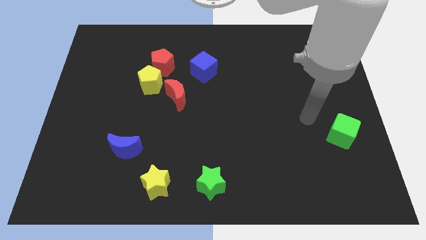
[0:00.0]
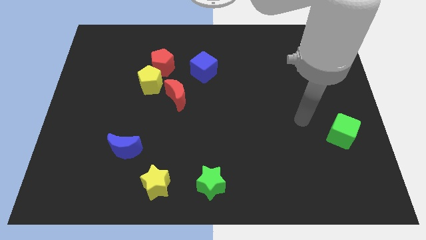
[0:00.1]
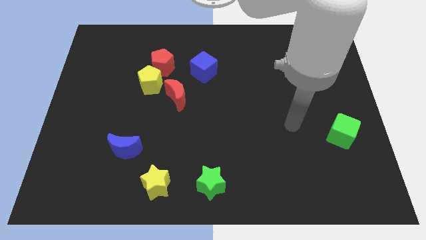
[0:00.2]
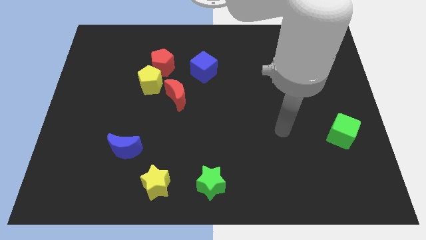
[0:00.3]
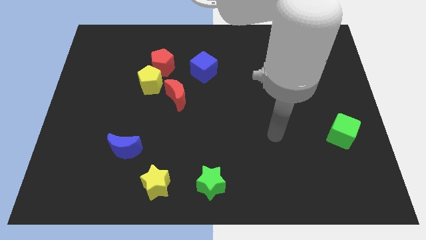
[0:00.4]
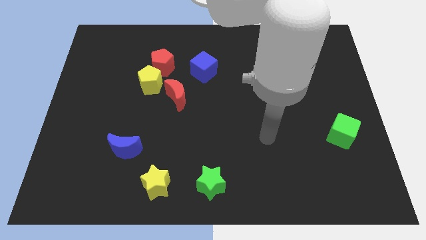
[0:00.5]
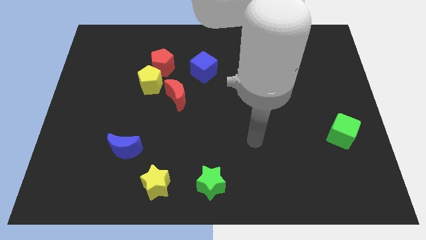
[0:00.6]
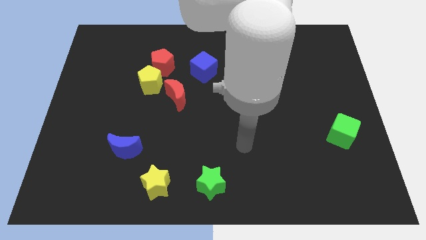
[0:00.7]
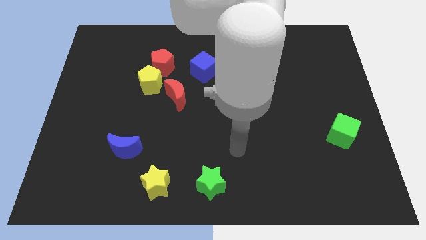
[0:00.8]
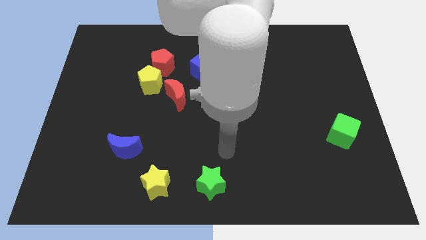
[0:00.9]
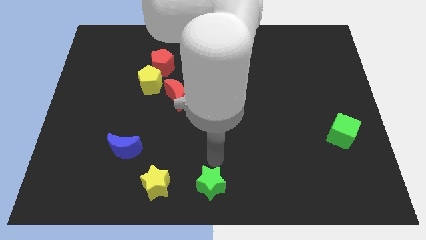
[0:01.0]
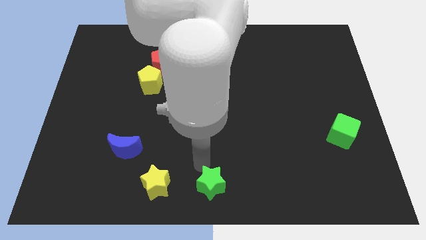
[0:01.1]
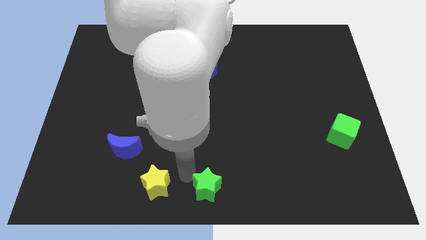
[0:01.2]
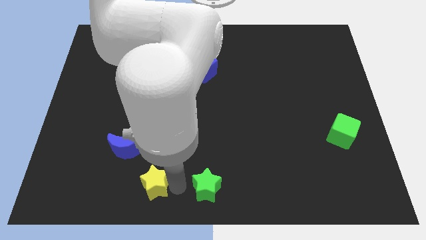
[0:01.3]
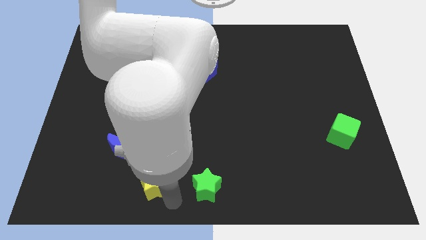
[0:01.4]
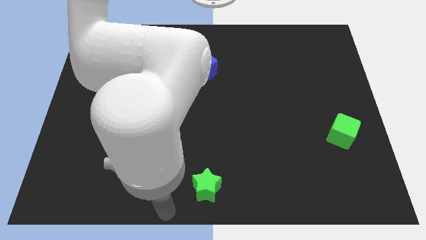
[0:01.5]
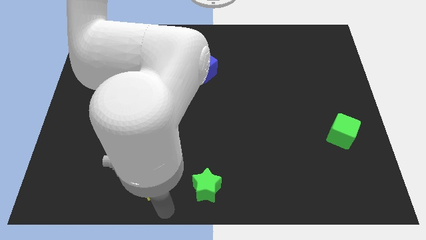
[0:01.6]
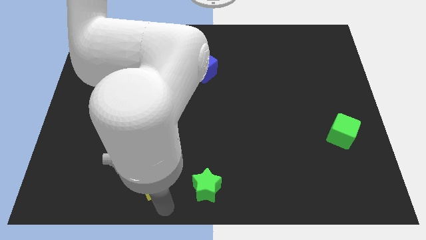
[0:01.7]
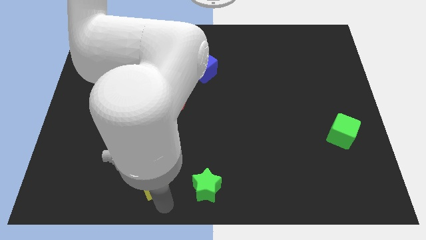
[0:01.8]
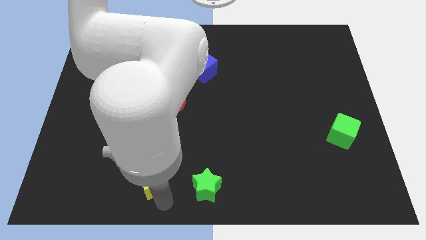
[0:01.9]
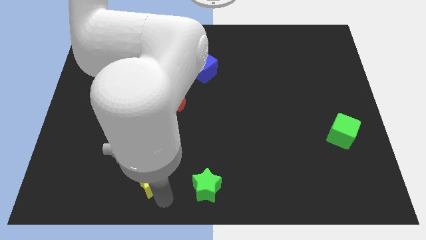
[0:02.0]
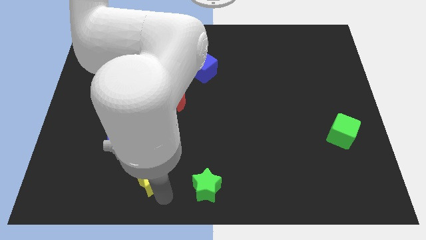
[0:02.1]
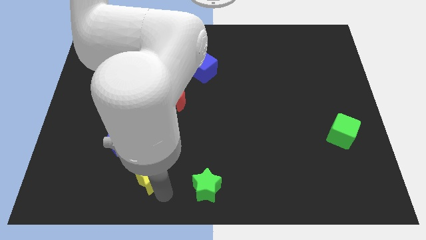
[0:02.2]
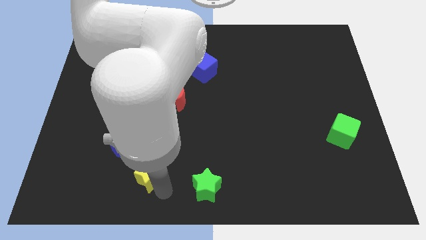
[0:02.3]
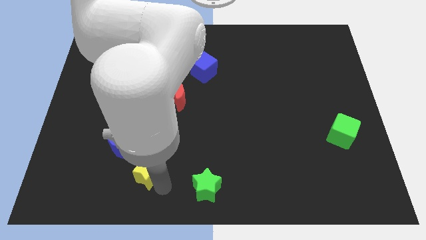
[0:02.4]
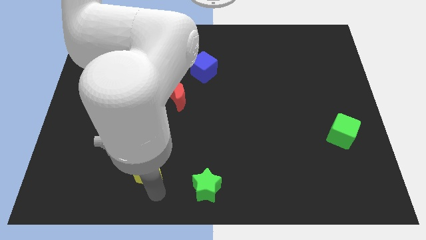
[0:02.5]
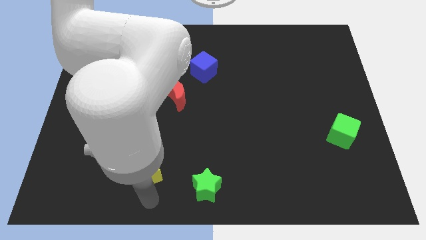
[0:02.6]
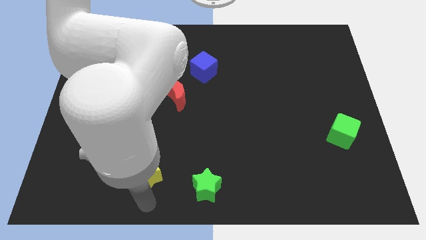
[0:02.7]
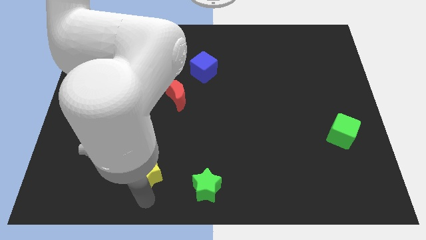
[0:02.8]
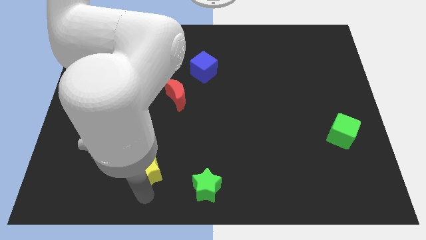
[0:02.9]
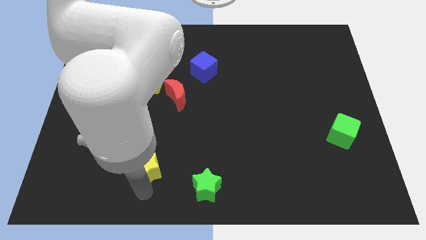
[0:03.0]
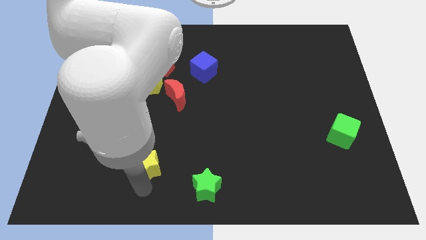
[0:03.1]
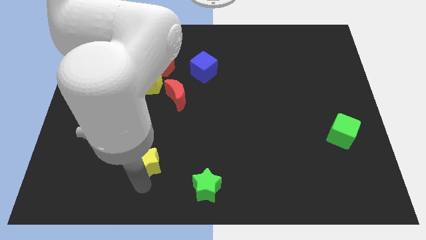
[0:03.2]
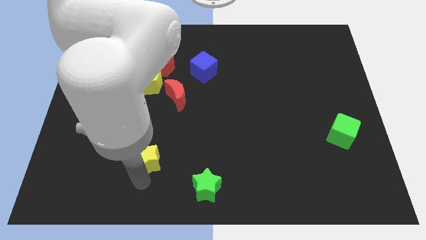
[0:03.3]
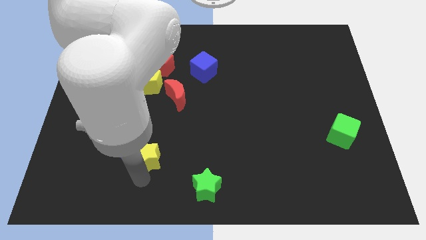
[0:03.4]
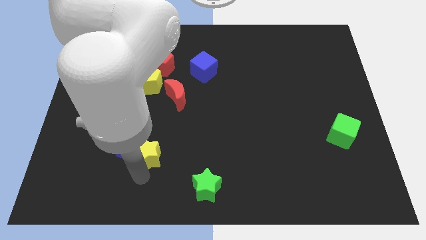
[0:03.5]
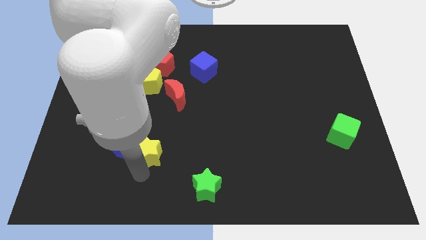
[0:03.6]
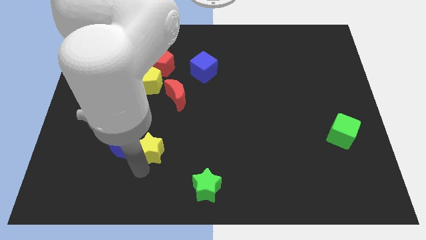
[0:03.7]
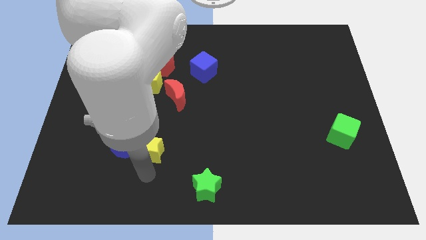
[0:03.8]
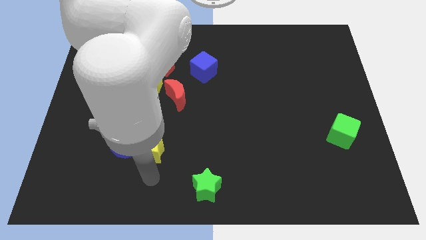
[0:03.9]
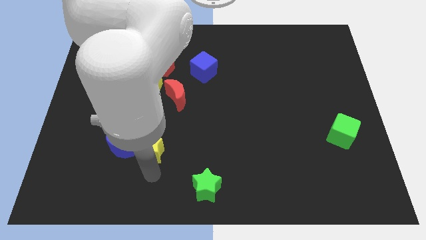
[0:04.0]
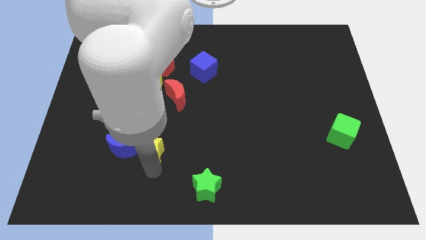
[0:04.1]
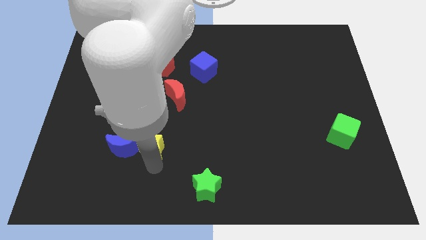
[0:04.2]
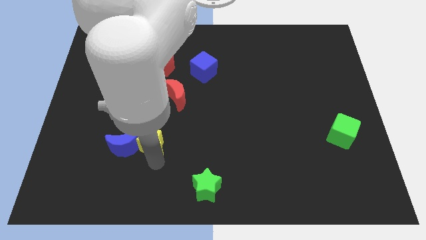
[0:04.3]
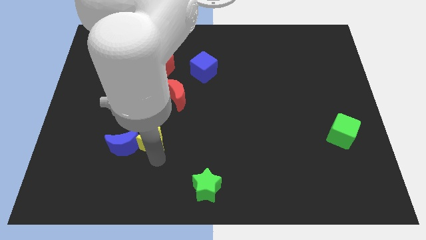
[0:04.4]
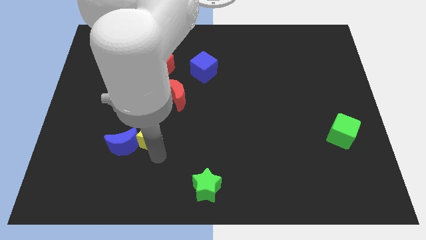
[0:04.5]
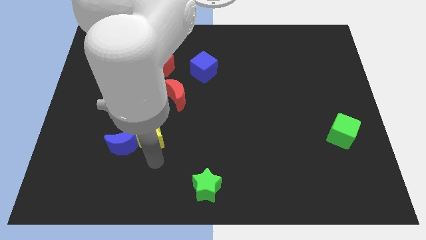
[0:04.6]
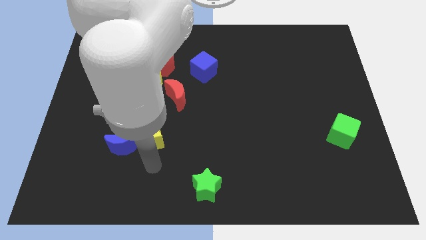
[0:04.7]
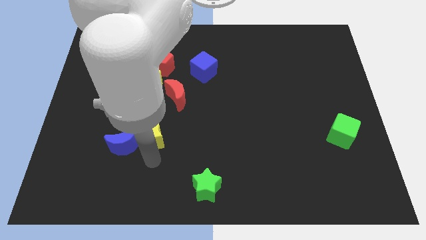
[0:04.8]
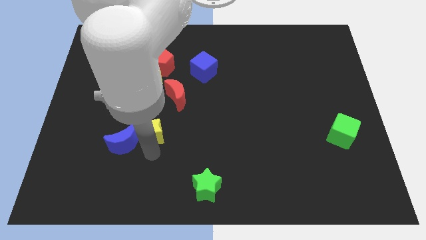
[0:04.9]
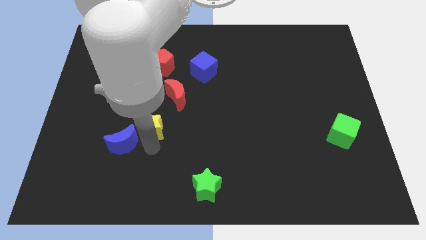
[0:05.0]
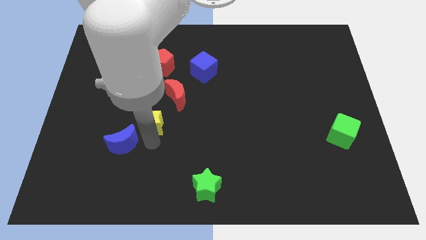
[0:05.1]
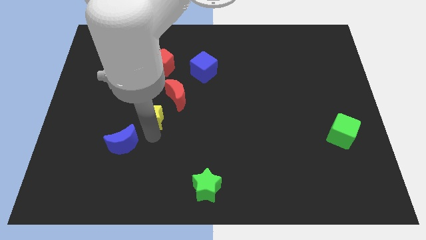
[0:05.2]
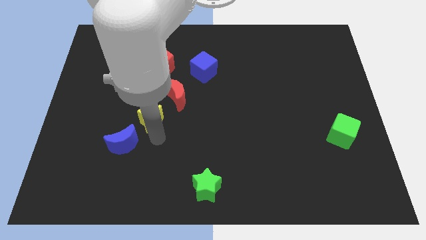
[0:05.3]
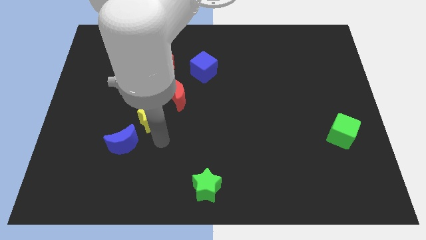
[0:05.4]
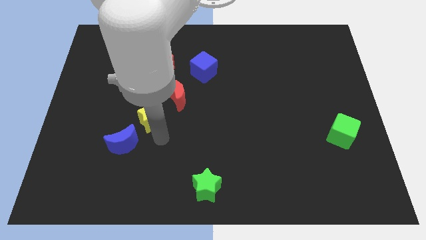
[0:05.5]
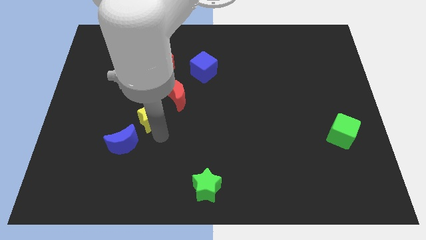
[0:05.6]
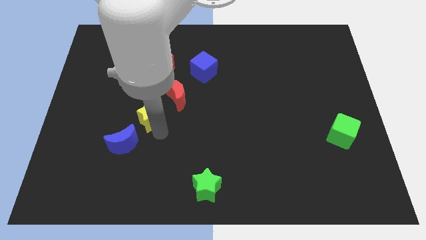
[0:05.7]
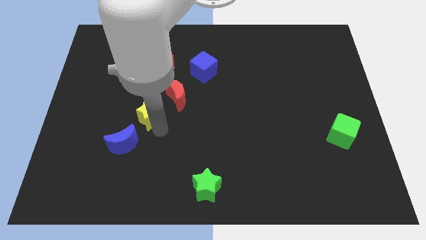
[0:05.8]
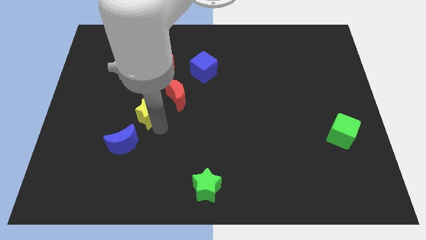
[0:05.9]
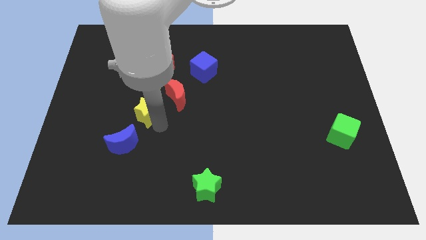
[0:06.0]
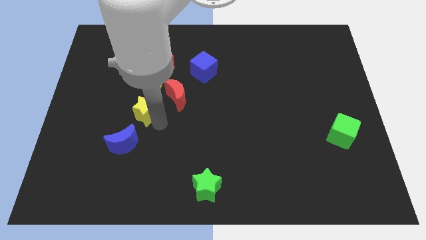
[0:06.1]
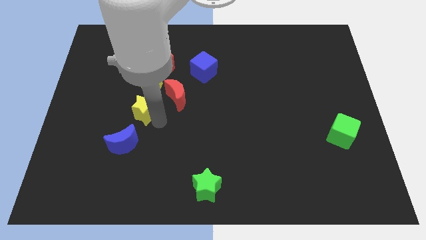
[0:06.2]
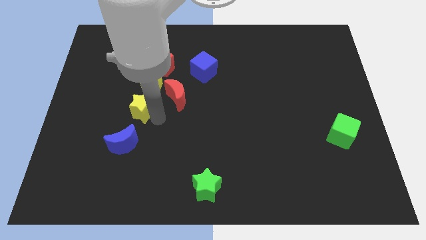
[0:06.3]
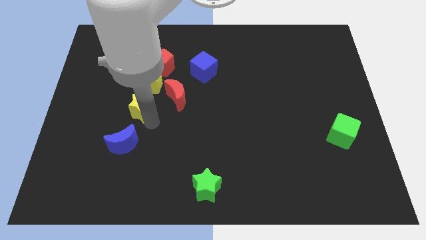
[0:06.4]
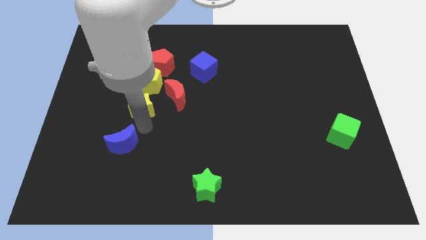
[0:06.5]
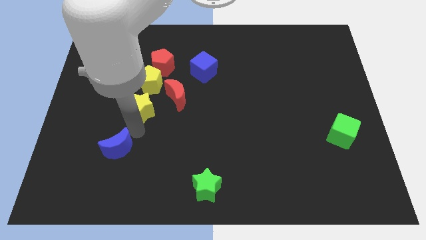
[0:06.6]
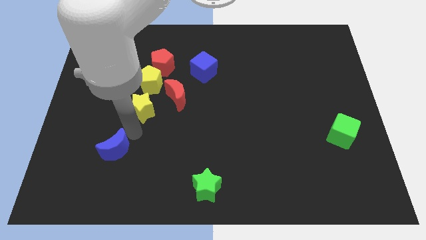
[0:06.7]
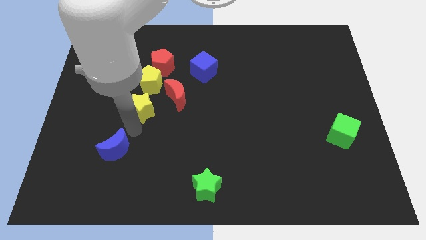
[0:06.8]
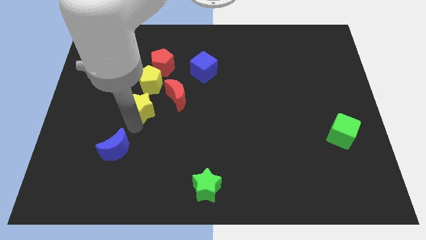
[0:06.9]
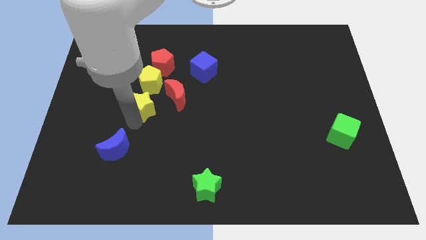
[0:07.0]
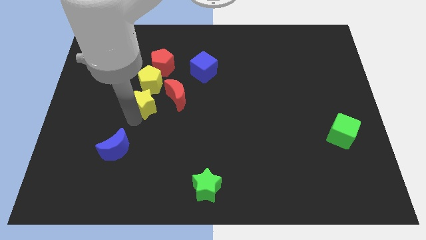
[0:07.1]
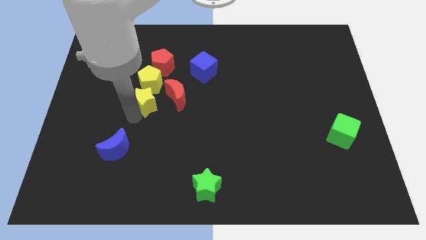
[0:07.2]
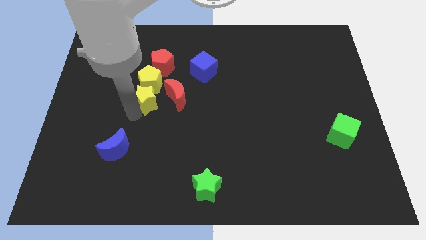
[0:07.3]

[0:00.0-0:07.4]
slide the yellow star next to the yellow pentagon

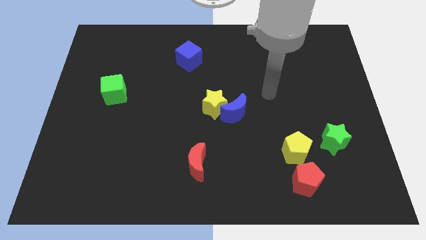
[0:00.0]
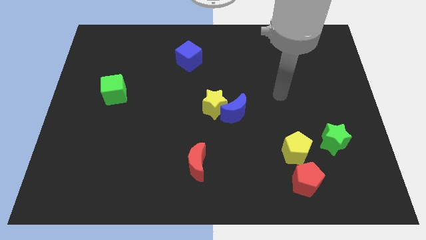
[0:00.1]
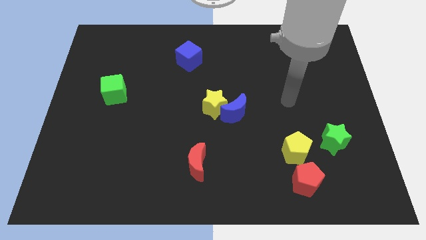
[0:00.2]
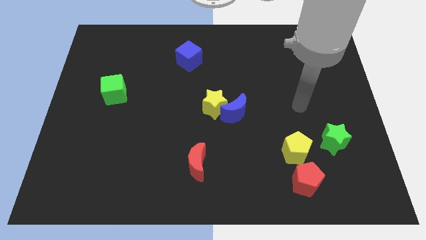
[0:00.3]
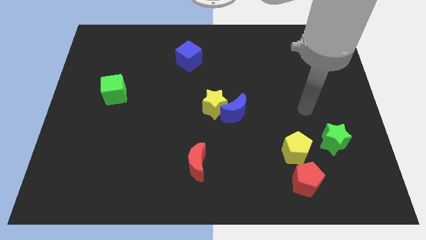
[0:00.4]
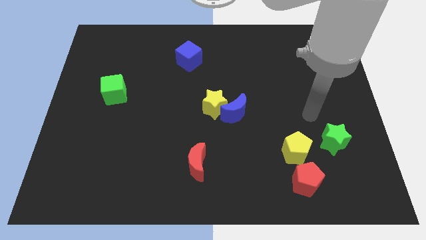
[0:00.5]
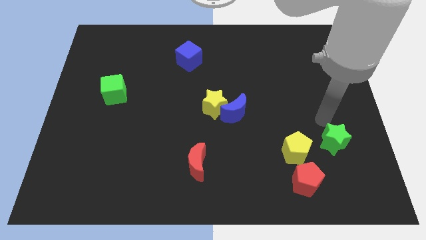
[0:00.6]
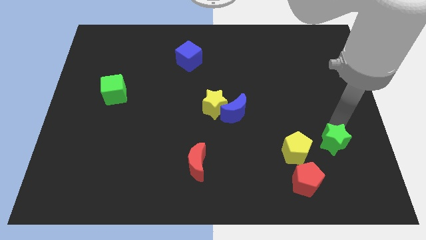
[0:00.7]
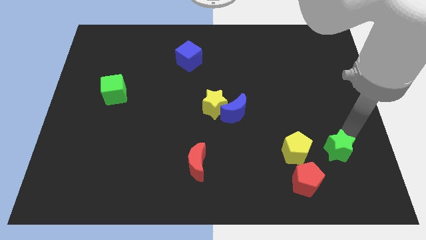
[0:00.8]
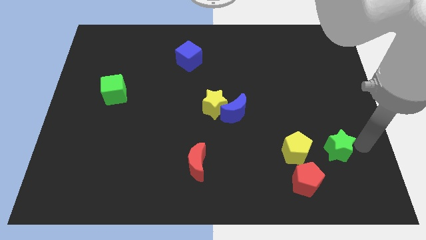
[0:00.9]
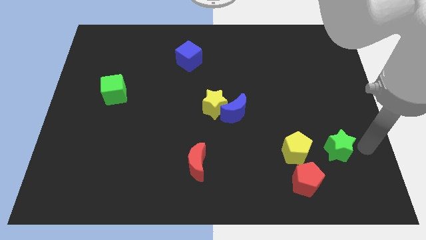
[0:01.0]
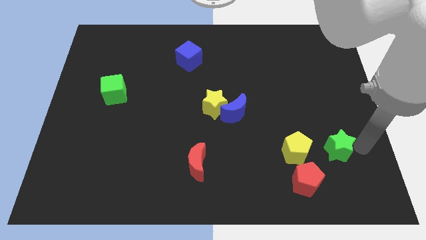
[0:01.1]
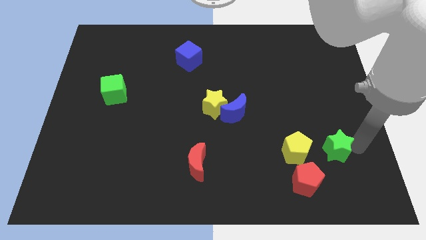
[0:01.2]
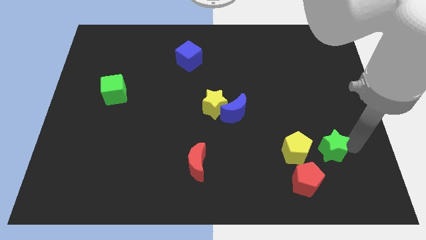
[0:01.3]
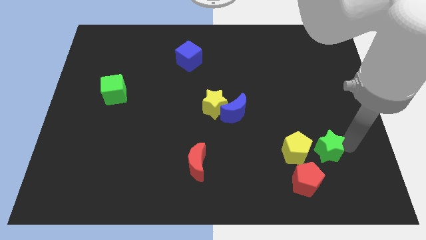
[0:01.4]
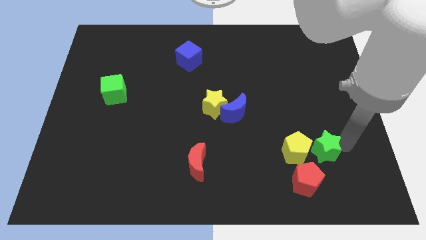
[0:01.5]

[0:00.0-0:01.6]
slide the green star next to the yellow pentagon
